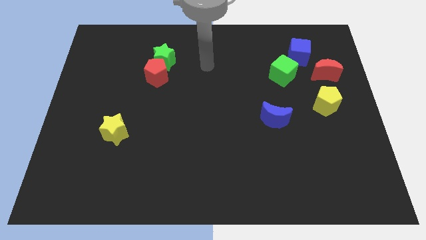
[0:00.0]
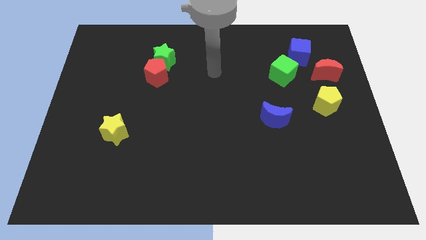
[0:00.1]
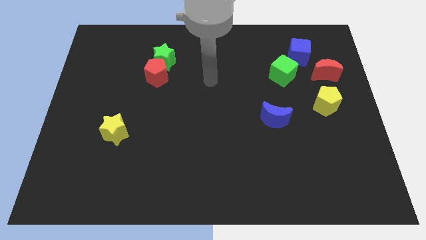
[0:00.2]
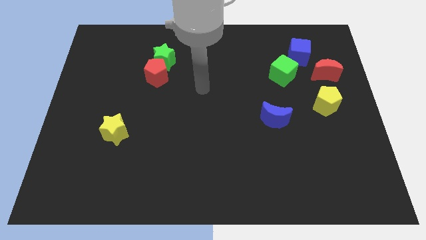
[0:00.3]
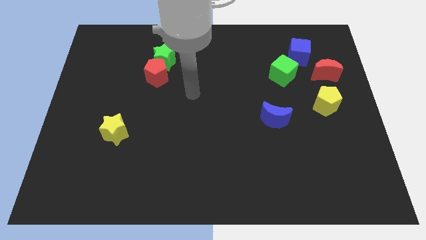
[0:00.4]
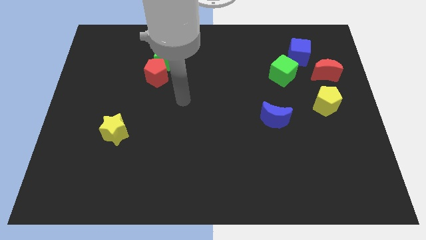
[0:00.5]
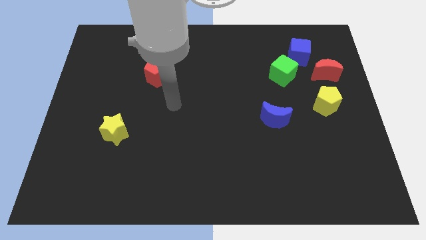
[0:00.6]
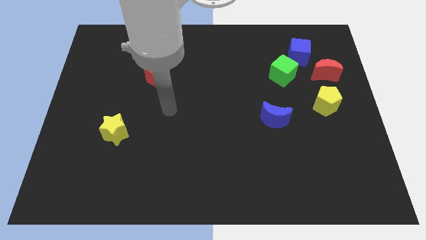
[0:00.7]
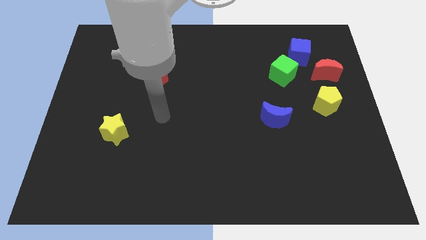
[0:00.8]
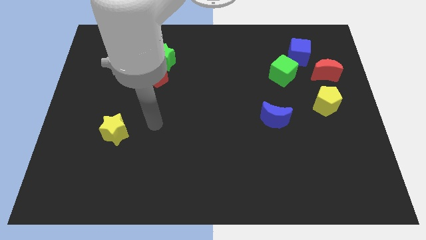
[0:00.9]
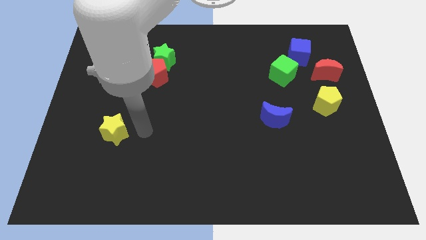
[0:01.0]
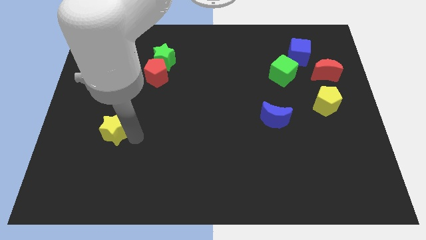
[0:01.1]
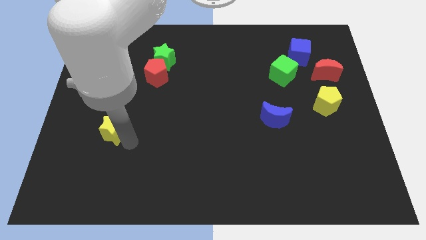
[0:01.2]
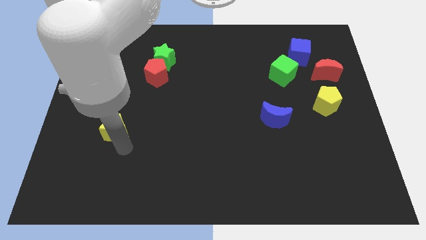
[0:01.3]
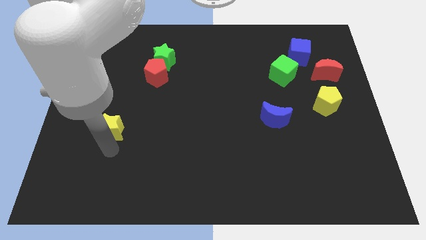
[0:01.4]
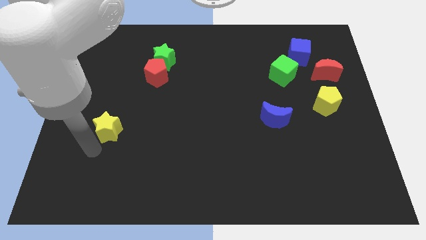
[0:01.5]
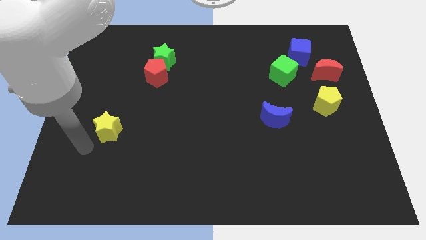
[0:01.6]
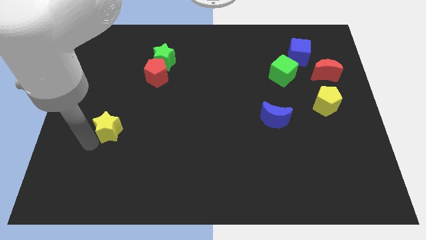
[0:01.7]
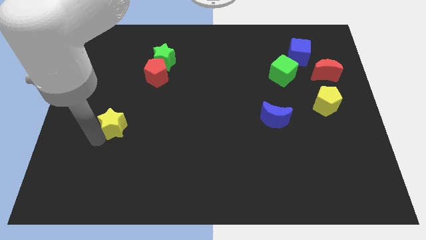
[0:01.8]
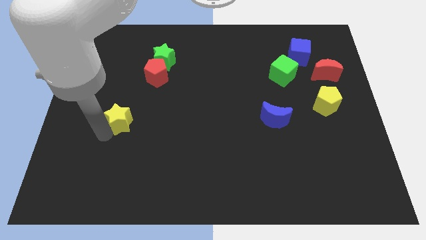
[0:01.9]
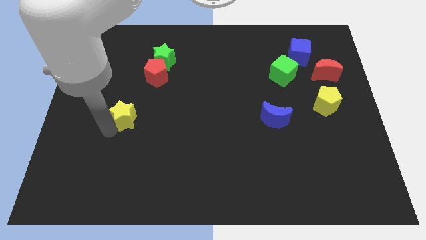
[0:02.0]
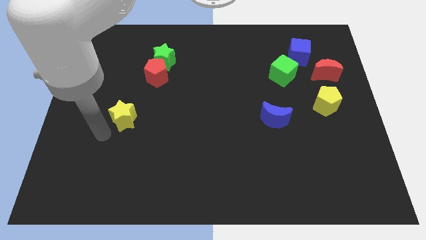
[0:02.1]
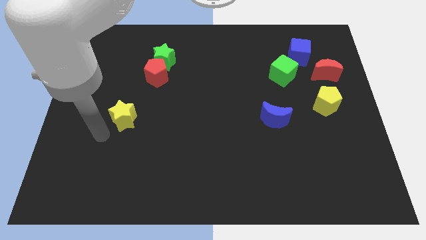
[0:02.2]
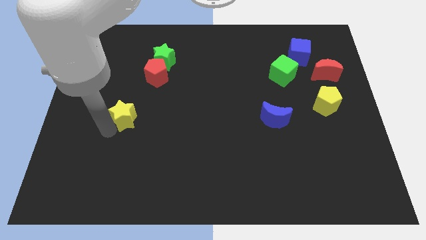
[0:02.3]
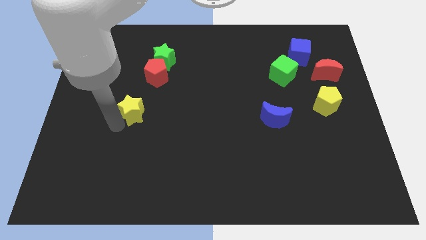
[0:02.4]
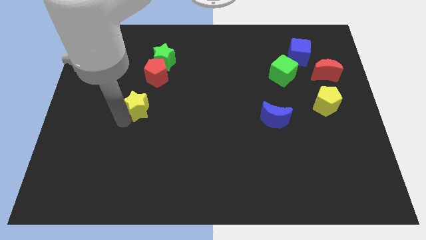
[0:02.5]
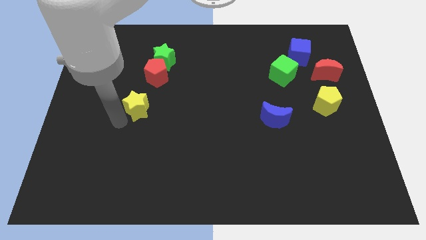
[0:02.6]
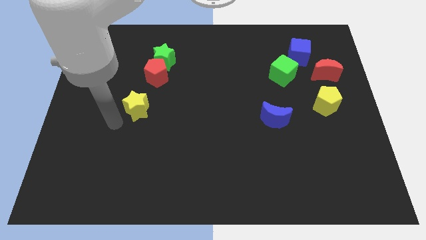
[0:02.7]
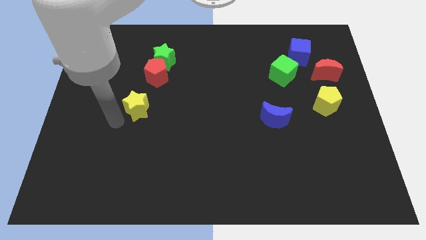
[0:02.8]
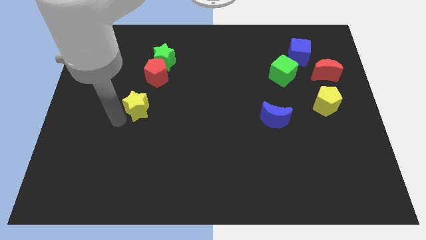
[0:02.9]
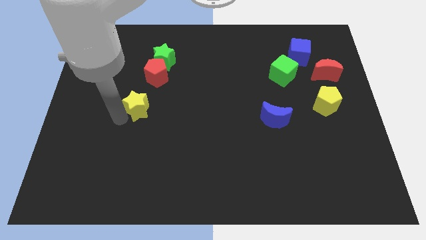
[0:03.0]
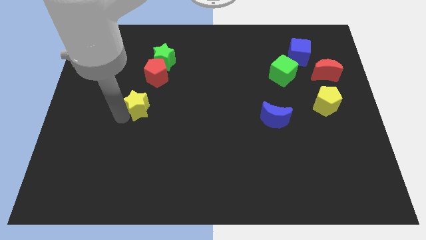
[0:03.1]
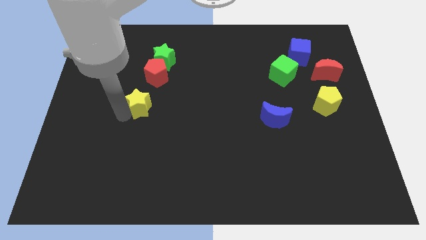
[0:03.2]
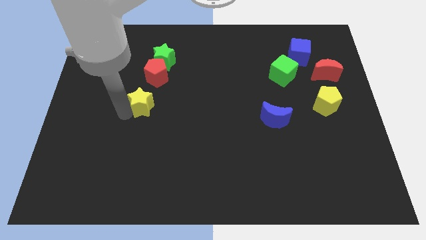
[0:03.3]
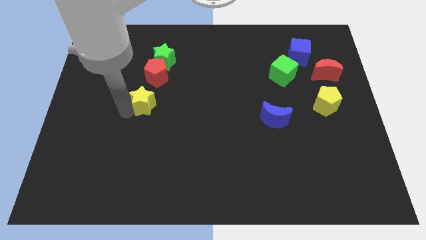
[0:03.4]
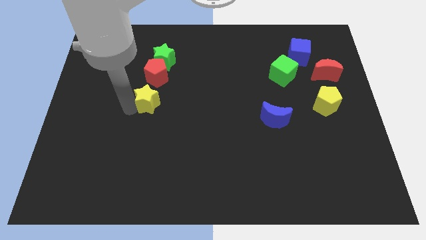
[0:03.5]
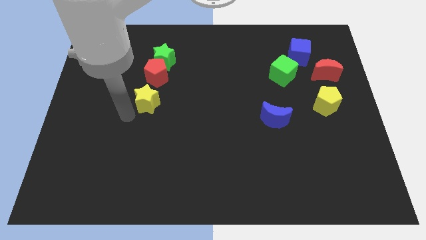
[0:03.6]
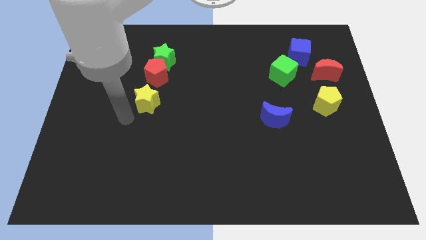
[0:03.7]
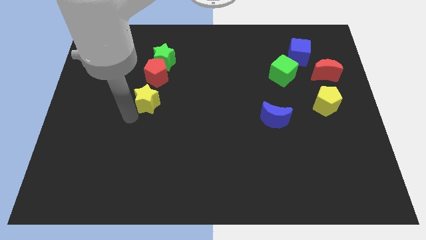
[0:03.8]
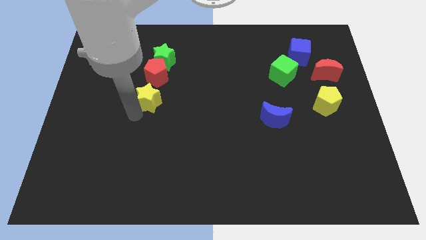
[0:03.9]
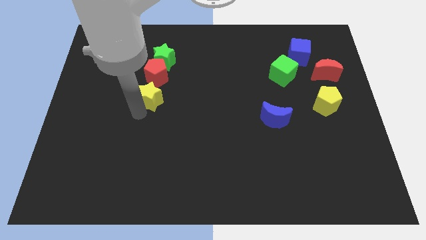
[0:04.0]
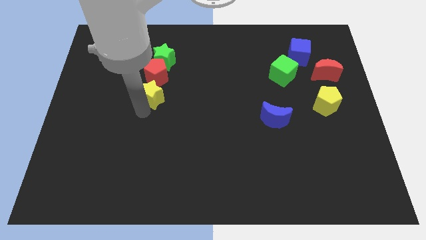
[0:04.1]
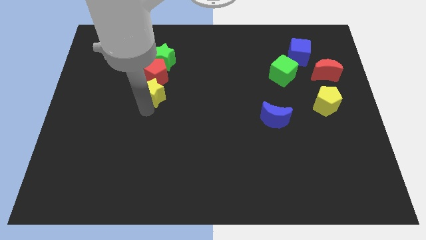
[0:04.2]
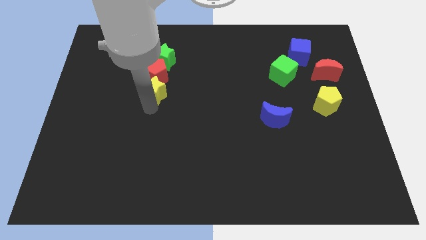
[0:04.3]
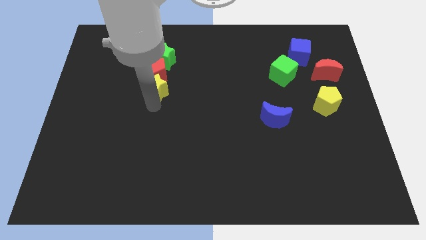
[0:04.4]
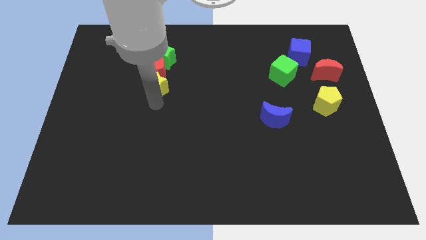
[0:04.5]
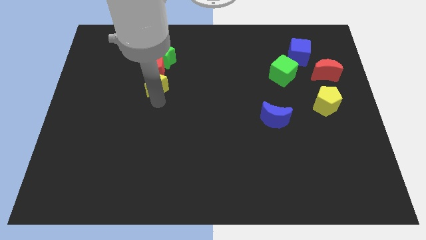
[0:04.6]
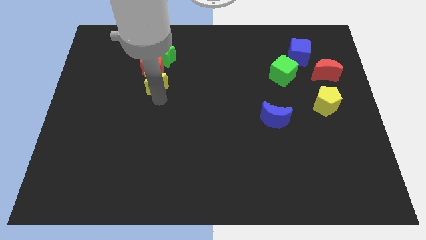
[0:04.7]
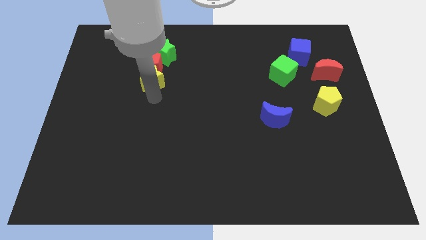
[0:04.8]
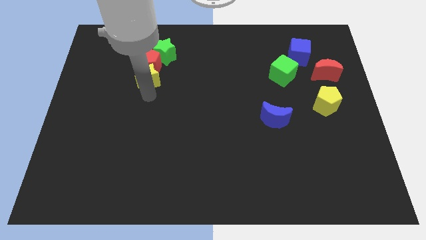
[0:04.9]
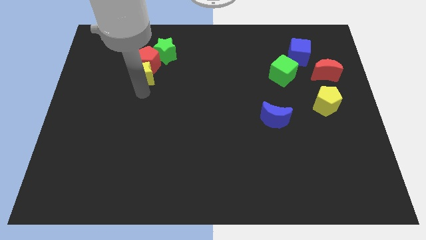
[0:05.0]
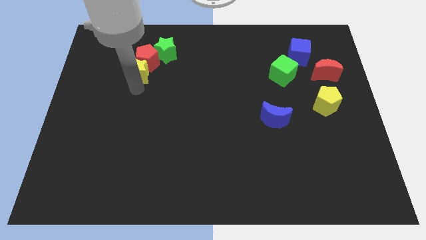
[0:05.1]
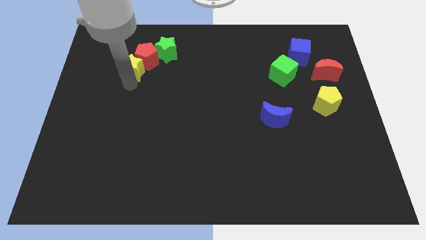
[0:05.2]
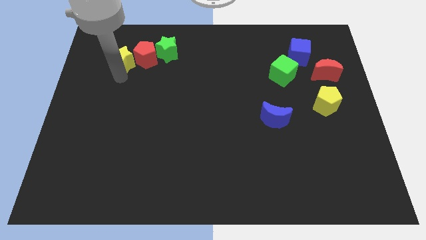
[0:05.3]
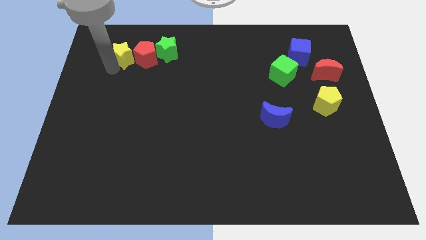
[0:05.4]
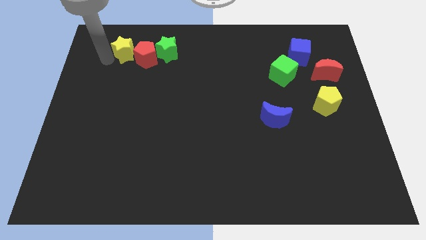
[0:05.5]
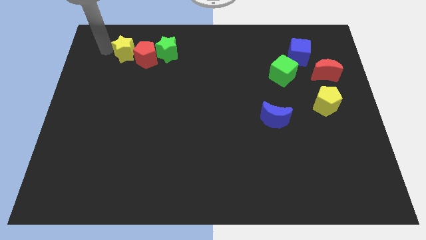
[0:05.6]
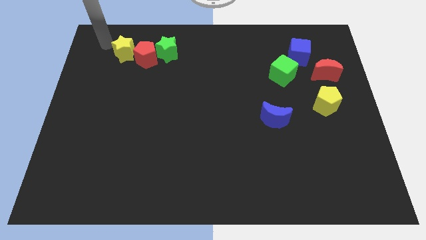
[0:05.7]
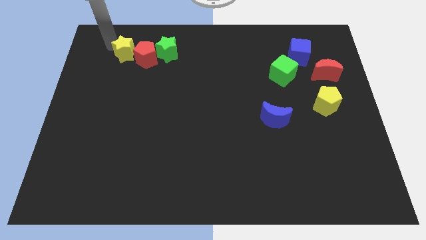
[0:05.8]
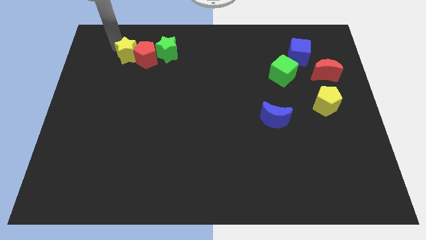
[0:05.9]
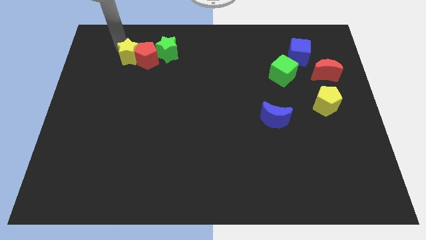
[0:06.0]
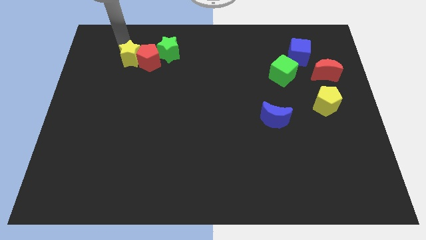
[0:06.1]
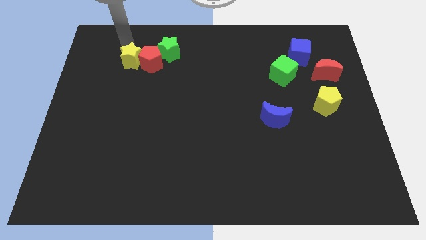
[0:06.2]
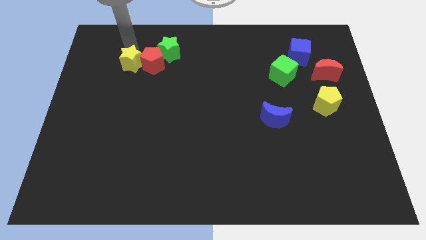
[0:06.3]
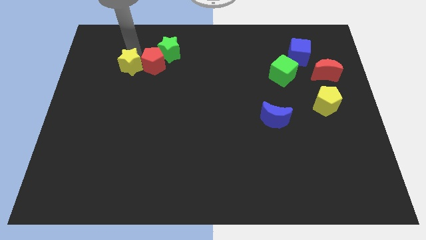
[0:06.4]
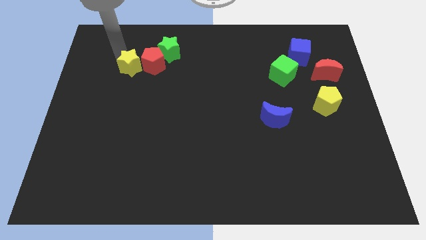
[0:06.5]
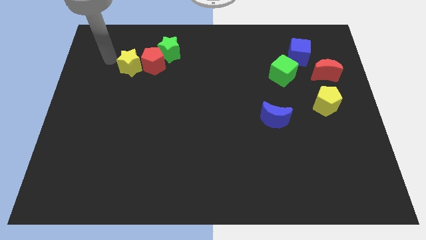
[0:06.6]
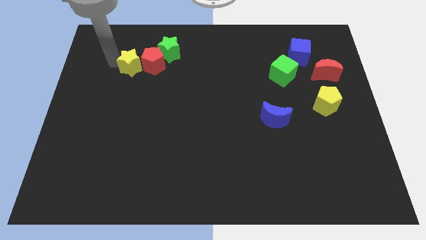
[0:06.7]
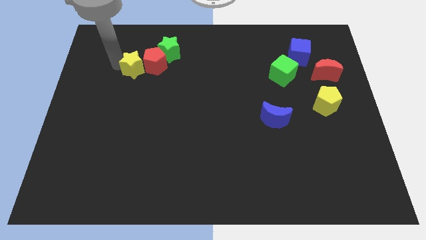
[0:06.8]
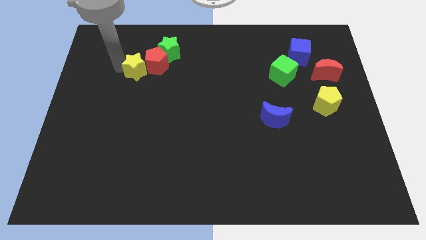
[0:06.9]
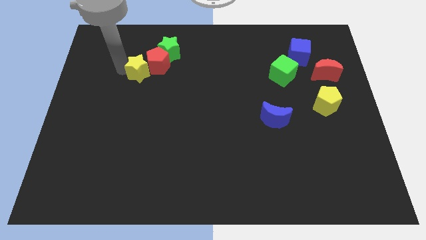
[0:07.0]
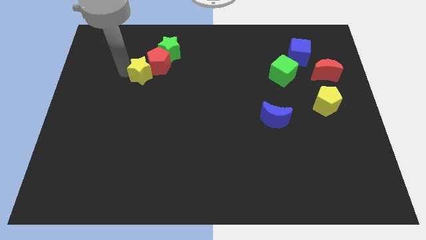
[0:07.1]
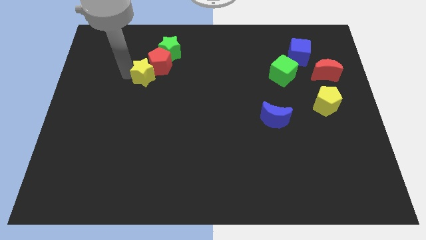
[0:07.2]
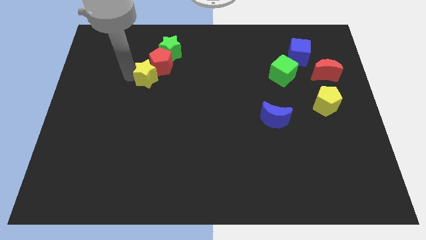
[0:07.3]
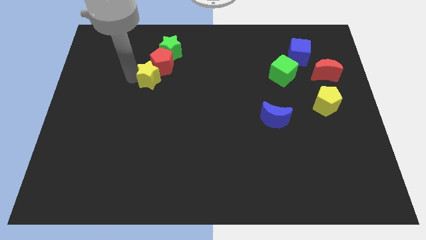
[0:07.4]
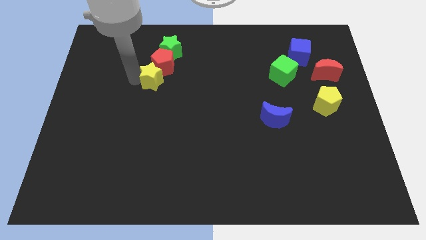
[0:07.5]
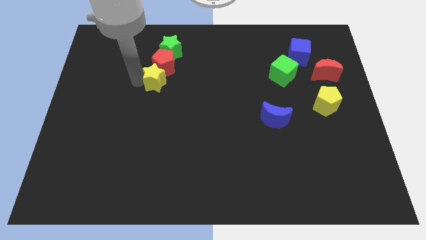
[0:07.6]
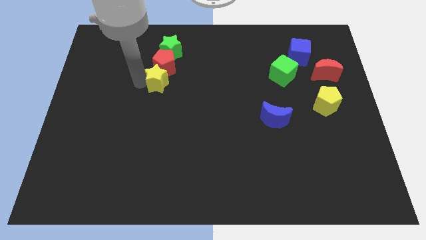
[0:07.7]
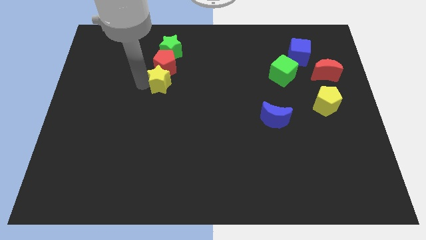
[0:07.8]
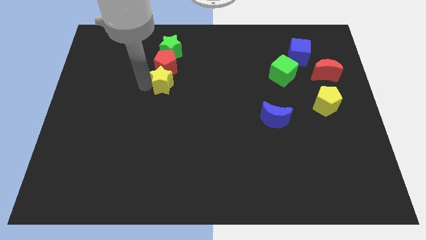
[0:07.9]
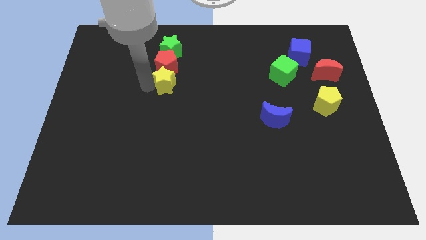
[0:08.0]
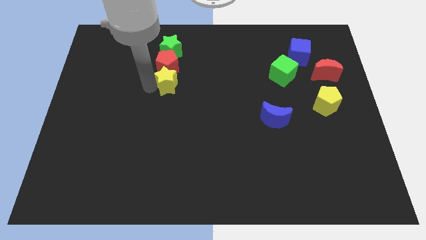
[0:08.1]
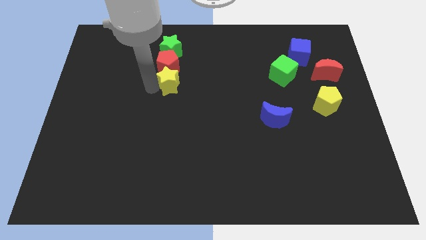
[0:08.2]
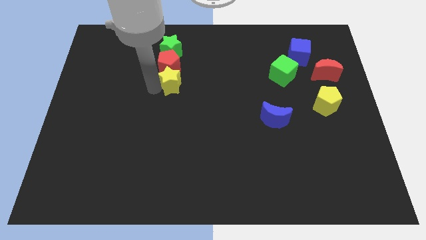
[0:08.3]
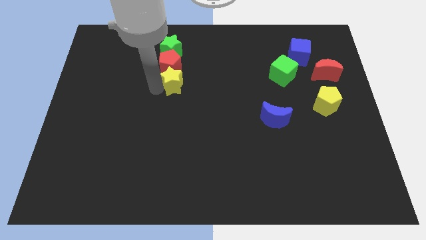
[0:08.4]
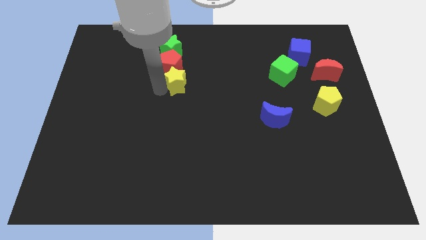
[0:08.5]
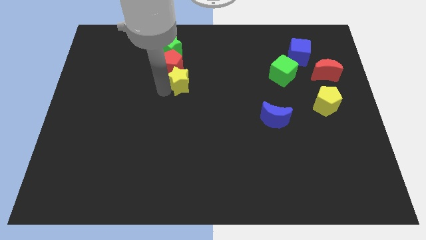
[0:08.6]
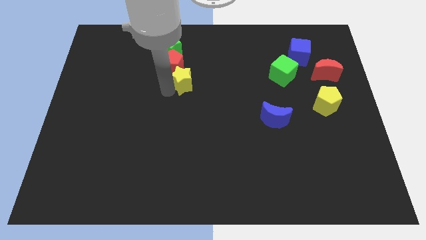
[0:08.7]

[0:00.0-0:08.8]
slide the yellow star upwards and then to the right
